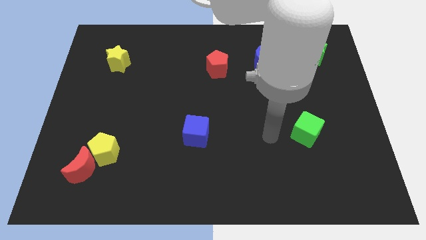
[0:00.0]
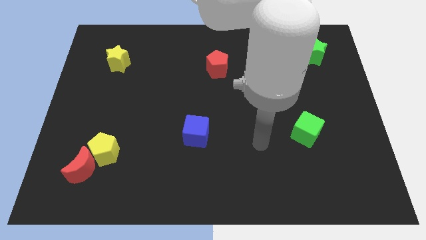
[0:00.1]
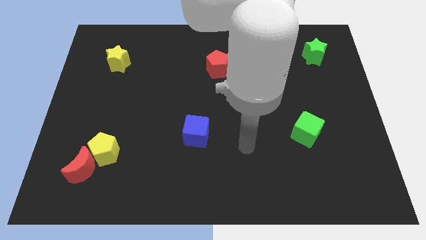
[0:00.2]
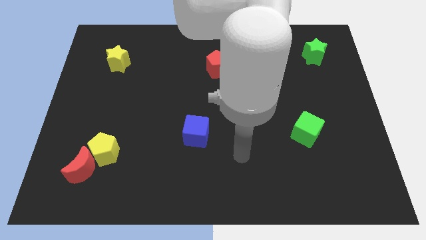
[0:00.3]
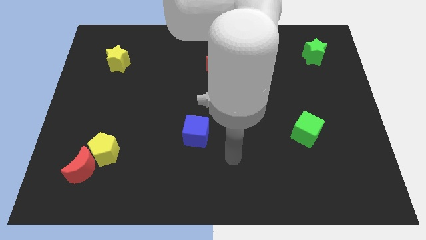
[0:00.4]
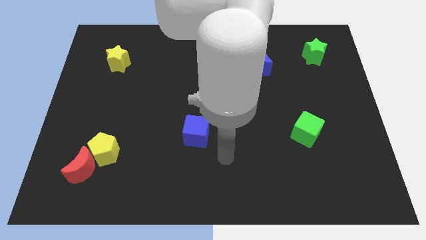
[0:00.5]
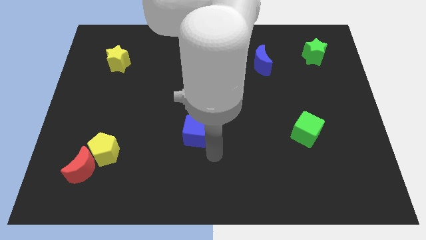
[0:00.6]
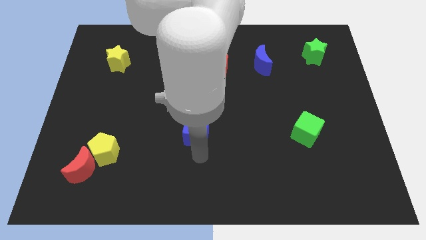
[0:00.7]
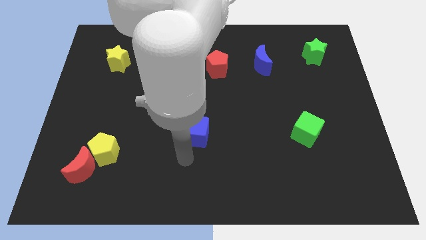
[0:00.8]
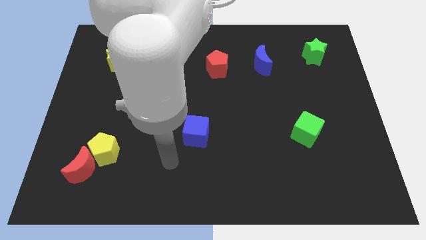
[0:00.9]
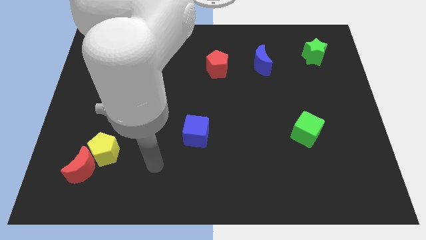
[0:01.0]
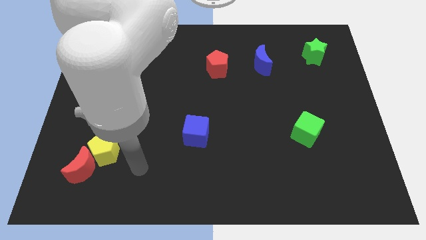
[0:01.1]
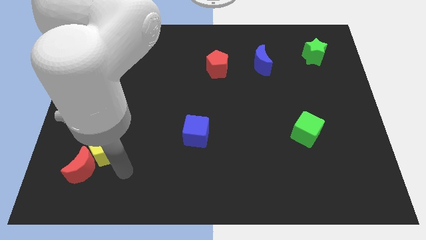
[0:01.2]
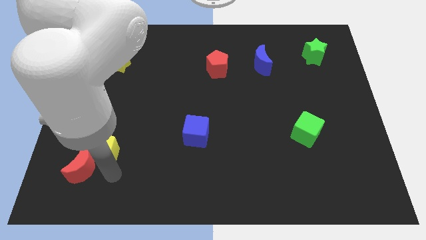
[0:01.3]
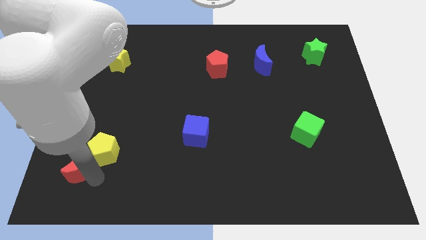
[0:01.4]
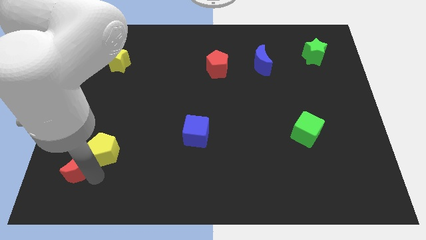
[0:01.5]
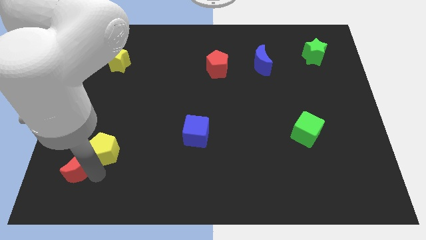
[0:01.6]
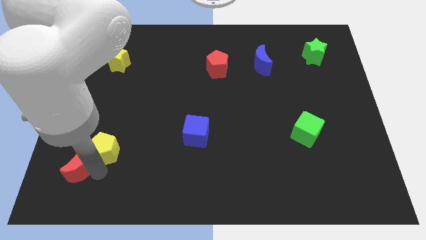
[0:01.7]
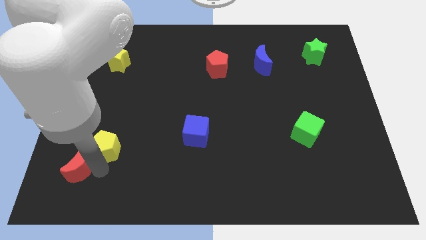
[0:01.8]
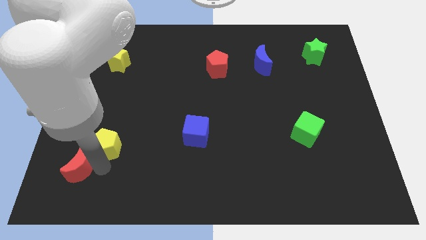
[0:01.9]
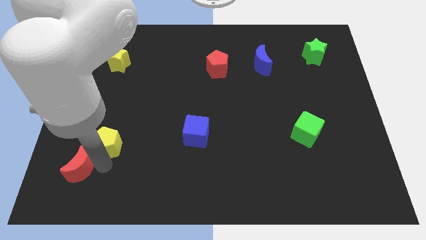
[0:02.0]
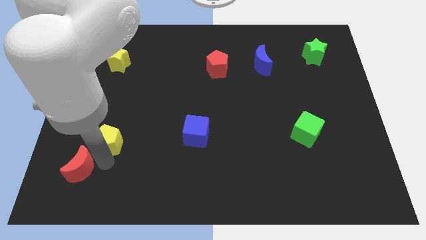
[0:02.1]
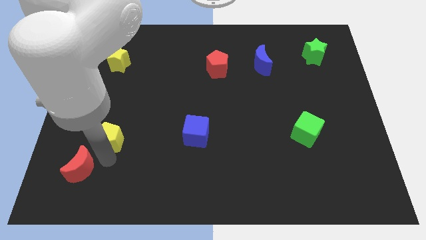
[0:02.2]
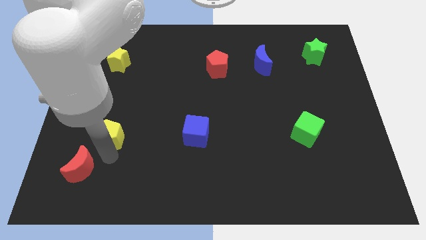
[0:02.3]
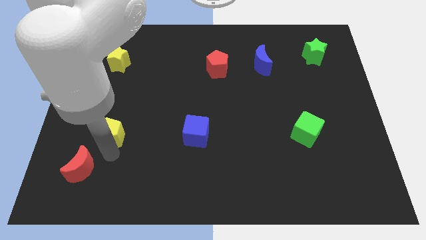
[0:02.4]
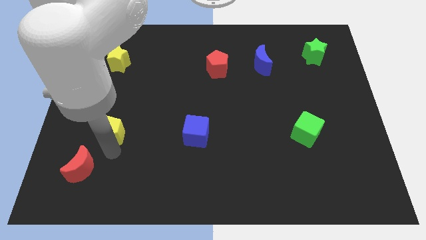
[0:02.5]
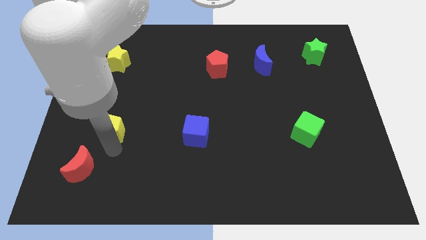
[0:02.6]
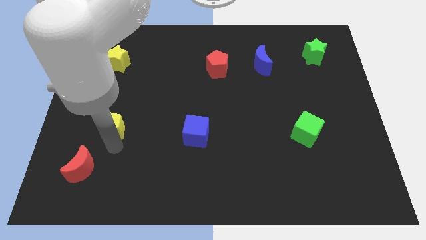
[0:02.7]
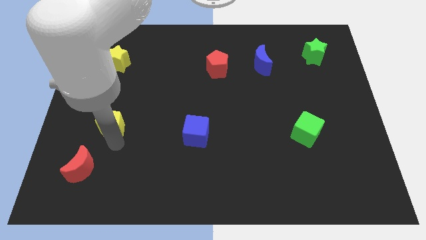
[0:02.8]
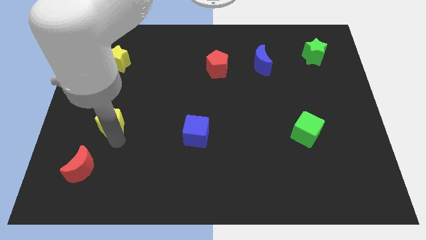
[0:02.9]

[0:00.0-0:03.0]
slide the yellow pentagon a little bit up

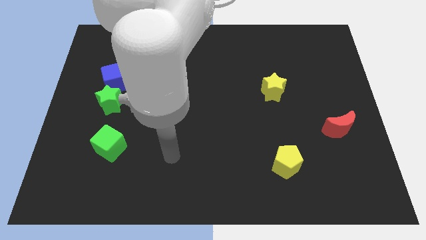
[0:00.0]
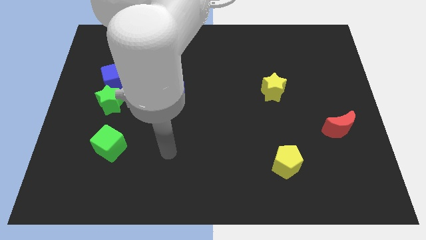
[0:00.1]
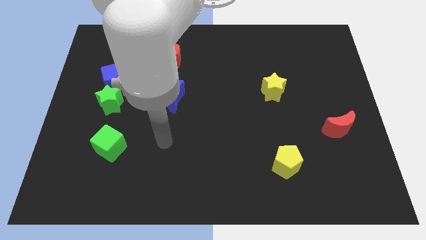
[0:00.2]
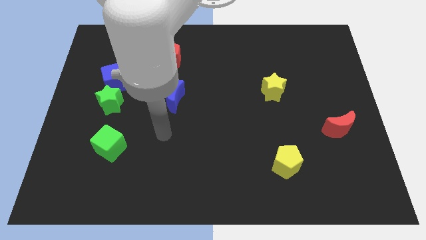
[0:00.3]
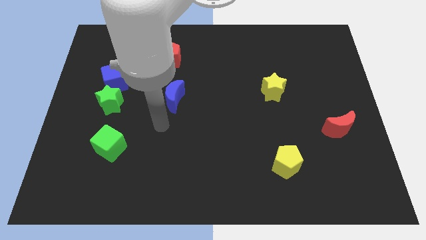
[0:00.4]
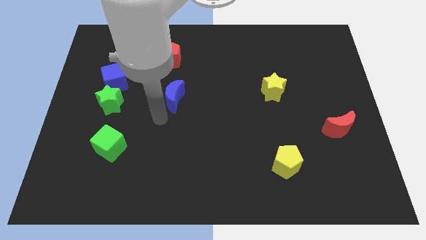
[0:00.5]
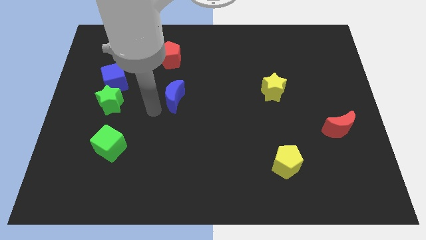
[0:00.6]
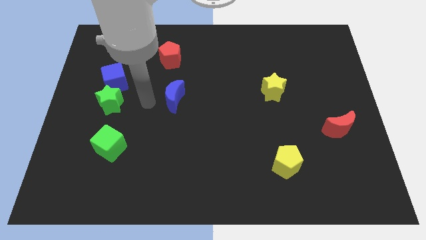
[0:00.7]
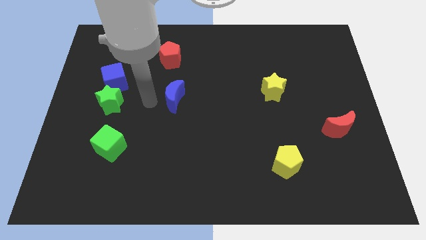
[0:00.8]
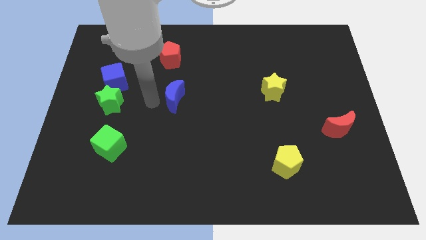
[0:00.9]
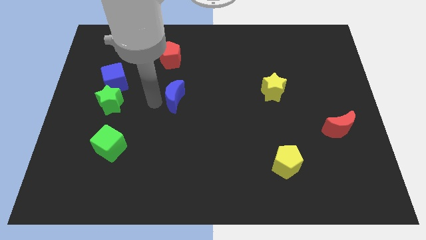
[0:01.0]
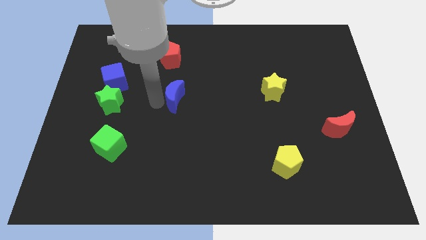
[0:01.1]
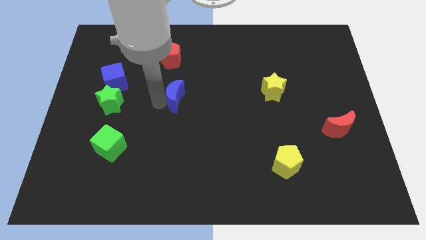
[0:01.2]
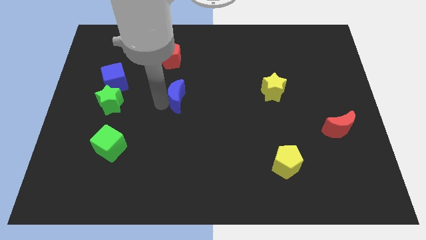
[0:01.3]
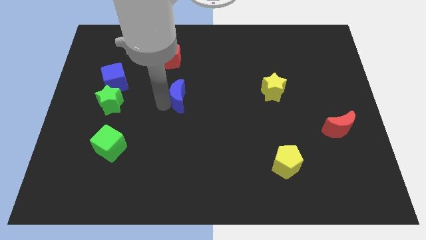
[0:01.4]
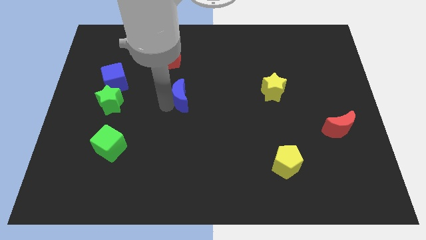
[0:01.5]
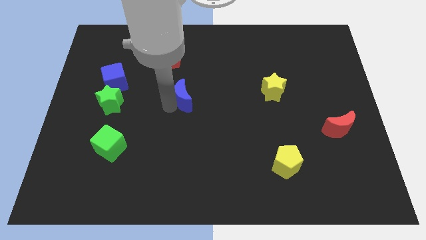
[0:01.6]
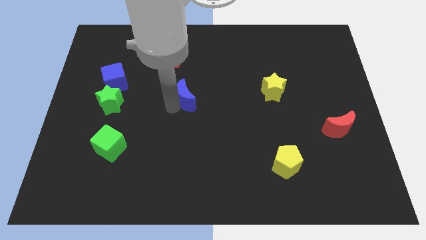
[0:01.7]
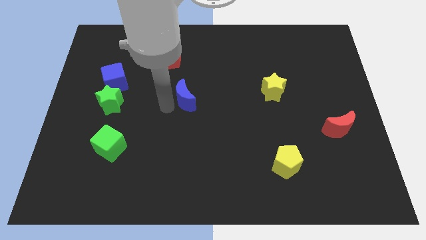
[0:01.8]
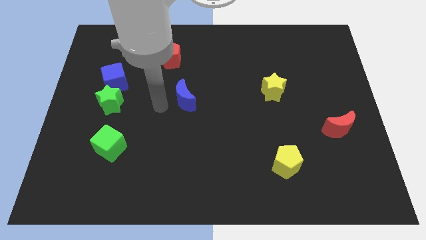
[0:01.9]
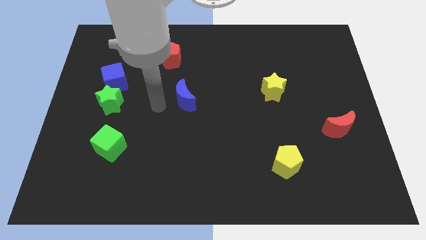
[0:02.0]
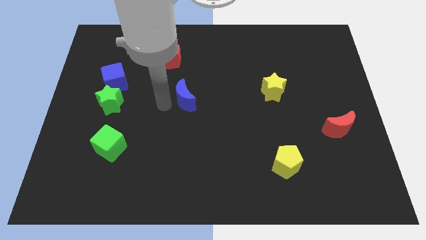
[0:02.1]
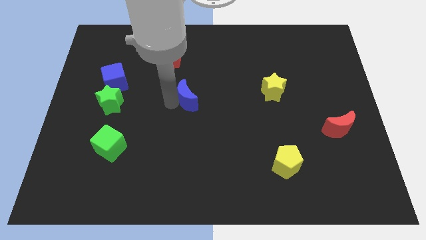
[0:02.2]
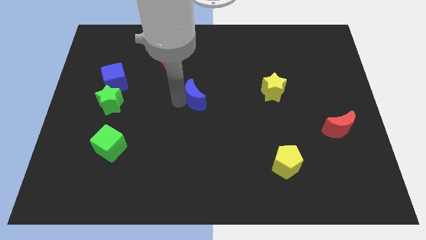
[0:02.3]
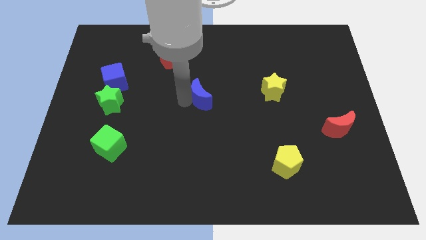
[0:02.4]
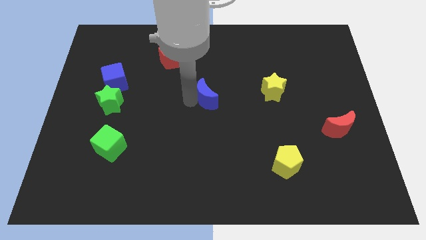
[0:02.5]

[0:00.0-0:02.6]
slide the blue moon a little to the right

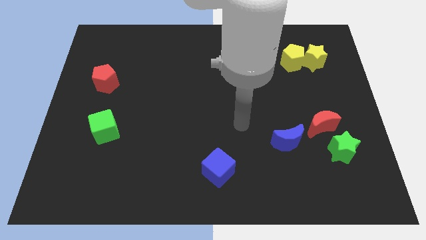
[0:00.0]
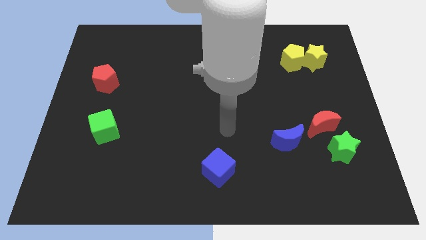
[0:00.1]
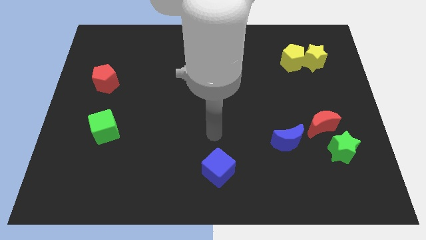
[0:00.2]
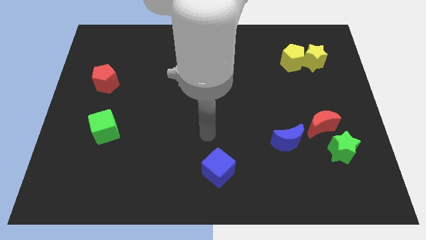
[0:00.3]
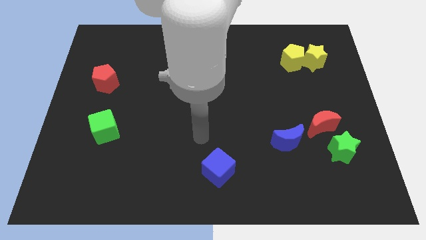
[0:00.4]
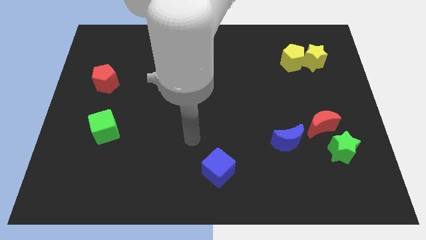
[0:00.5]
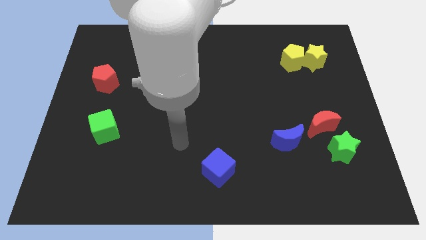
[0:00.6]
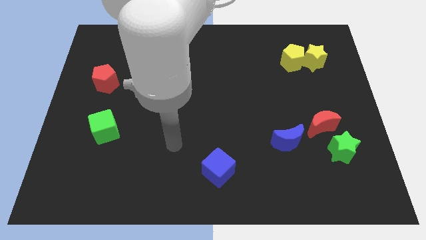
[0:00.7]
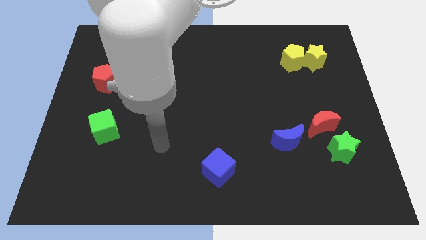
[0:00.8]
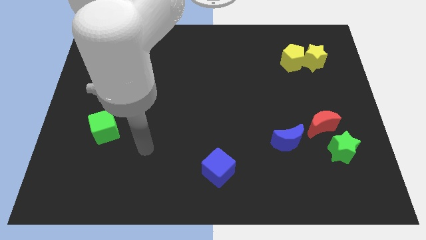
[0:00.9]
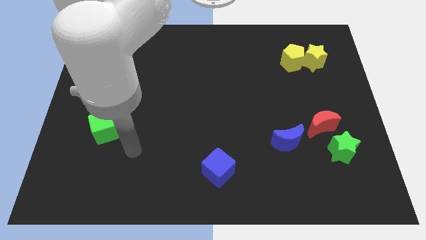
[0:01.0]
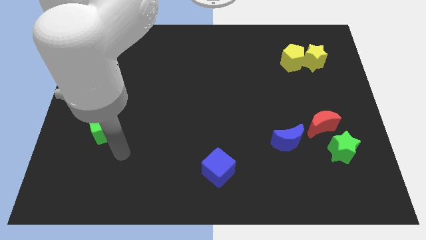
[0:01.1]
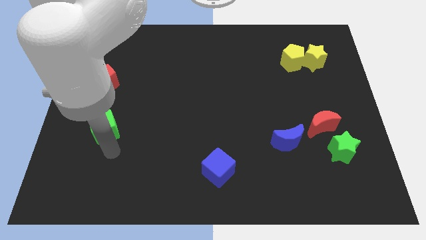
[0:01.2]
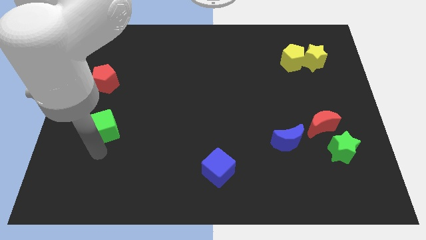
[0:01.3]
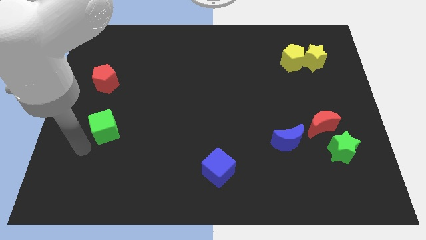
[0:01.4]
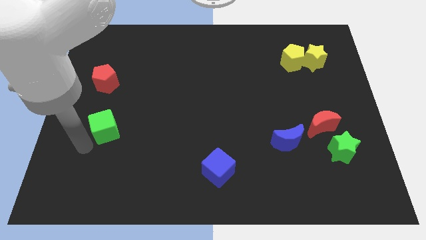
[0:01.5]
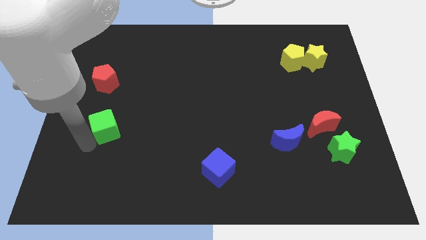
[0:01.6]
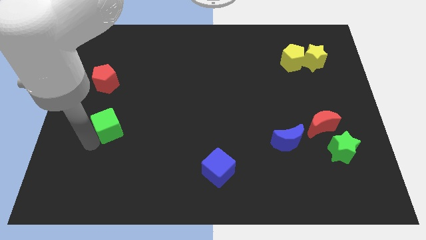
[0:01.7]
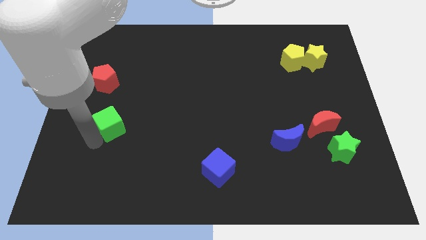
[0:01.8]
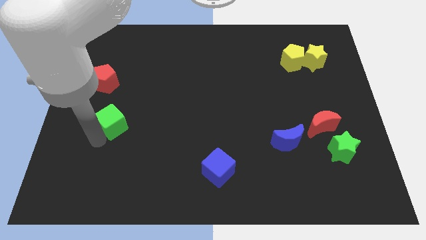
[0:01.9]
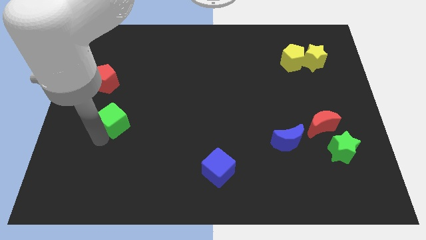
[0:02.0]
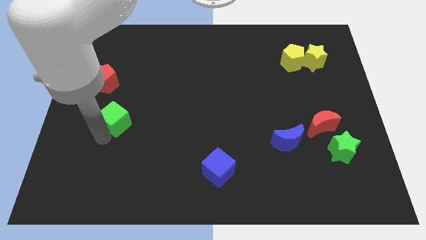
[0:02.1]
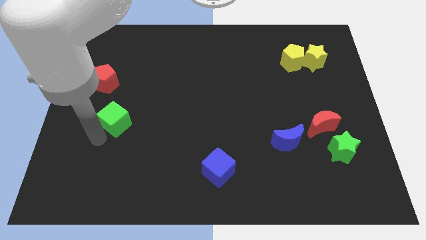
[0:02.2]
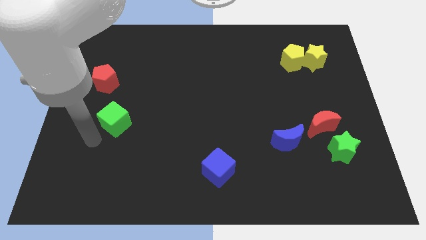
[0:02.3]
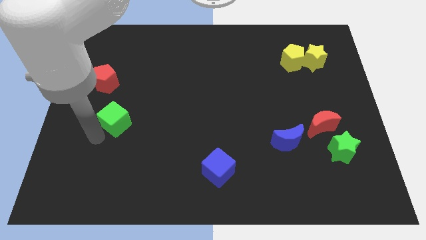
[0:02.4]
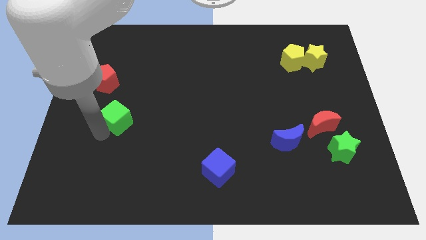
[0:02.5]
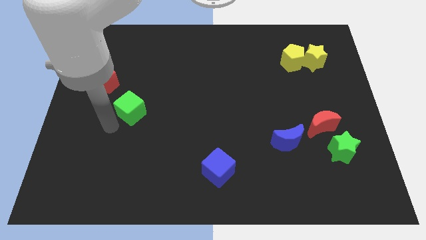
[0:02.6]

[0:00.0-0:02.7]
slightly slide the green cube upwards and to the right
